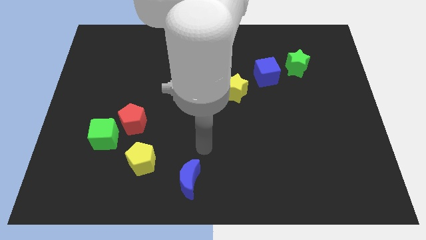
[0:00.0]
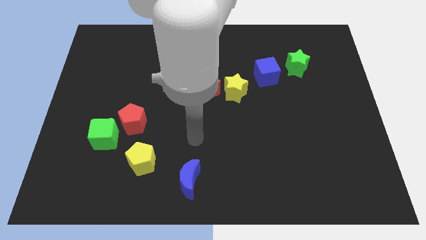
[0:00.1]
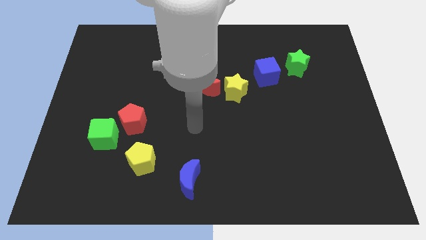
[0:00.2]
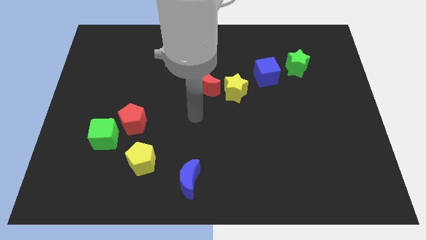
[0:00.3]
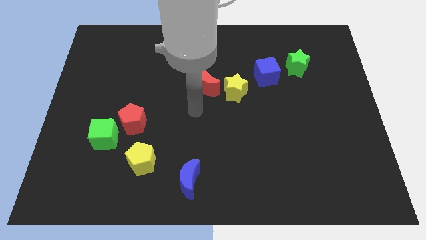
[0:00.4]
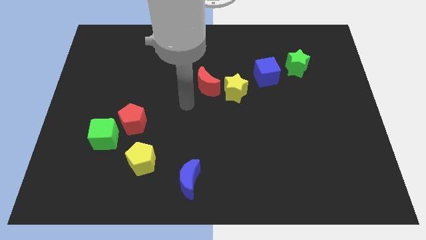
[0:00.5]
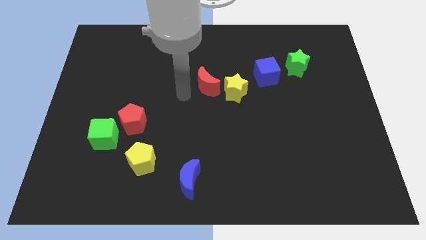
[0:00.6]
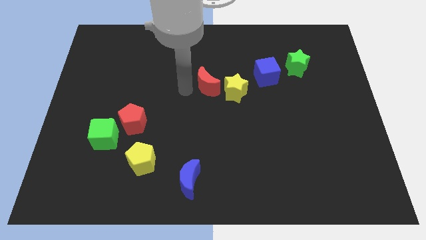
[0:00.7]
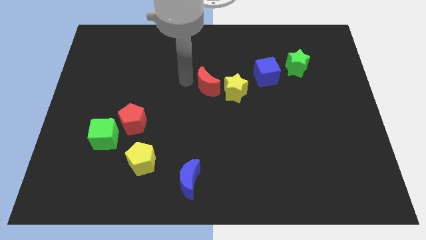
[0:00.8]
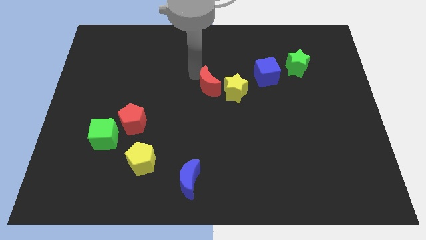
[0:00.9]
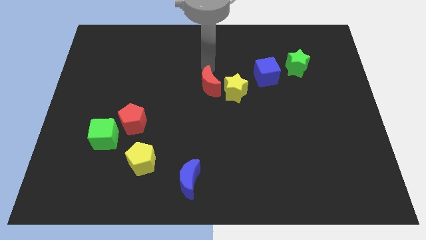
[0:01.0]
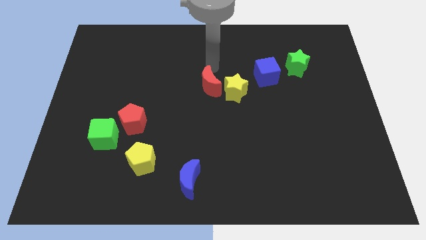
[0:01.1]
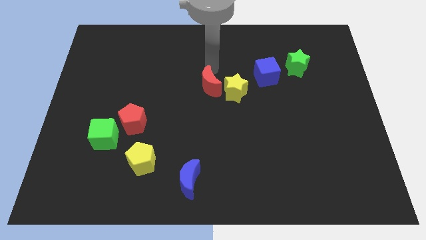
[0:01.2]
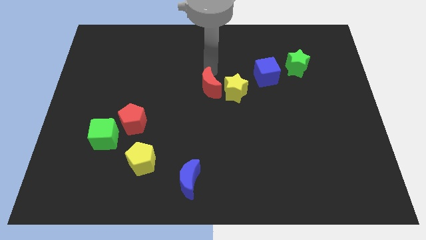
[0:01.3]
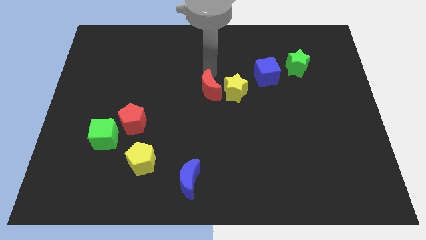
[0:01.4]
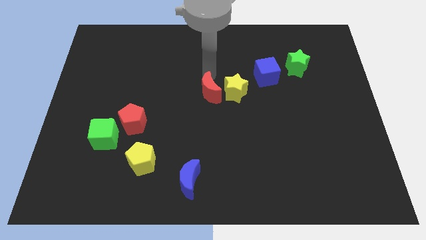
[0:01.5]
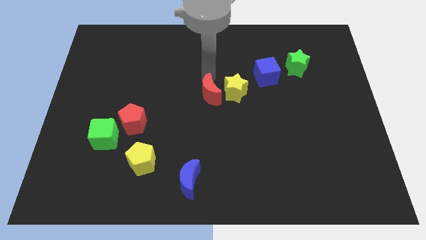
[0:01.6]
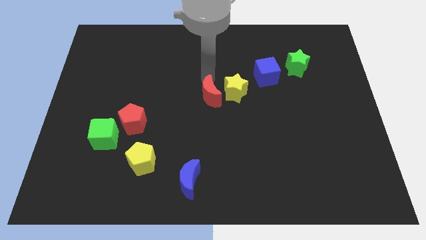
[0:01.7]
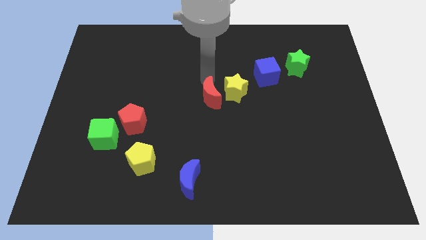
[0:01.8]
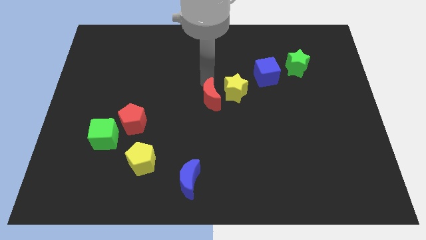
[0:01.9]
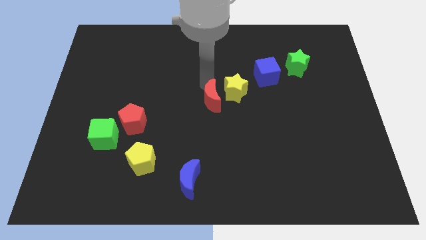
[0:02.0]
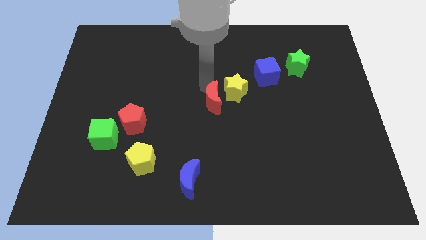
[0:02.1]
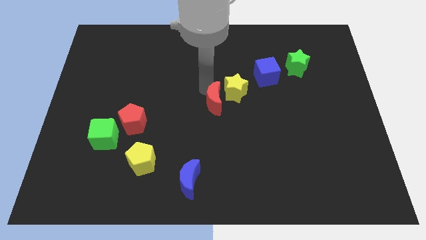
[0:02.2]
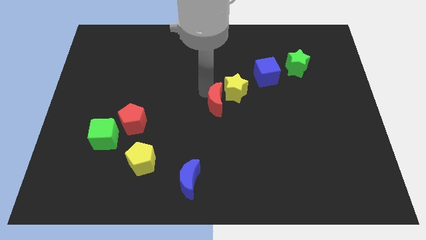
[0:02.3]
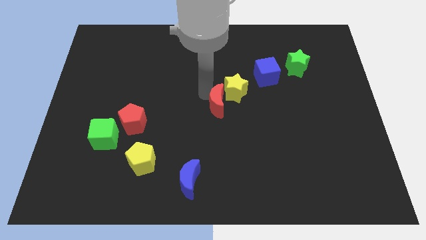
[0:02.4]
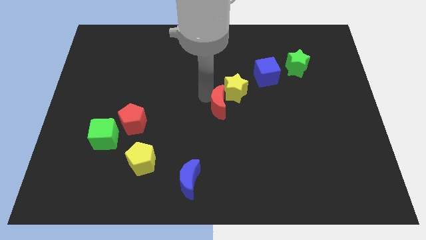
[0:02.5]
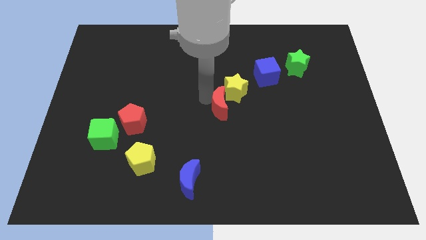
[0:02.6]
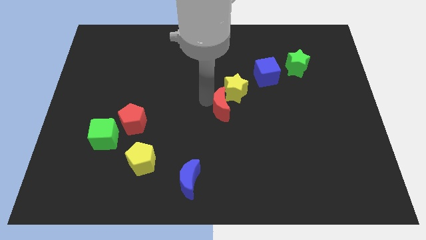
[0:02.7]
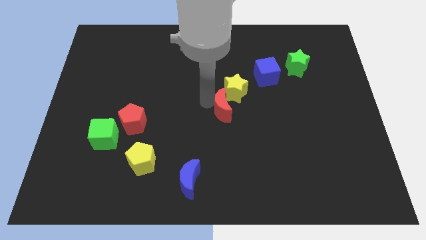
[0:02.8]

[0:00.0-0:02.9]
move the red moon a bit downwards

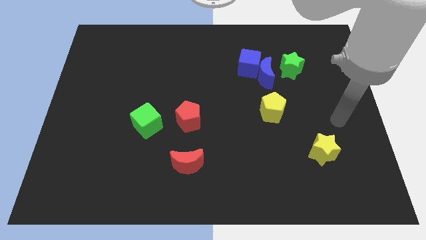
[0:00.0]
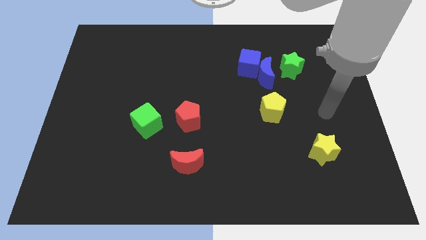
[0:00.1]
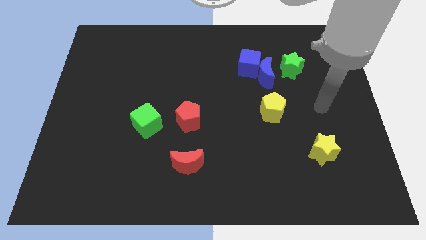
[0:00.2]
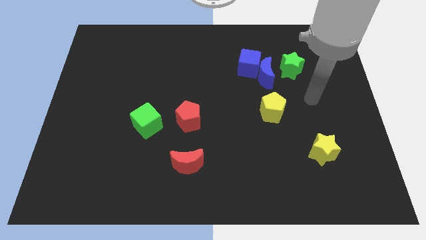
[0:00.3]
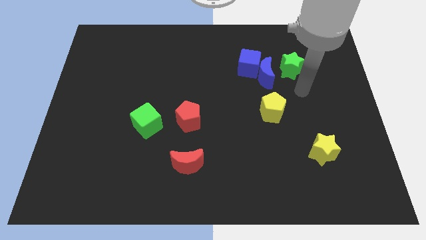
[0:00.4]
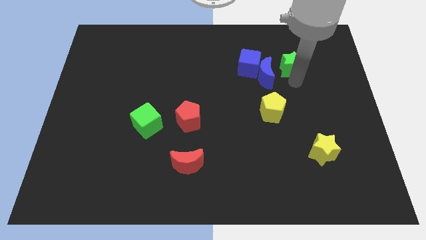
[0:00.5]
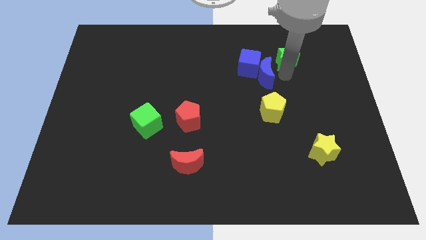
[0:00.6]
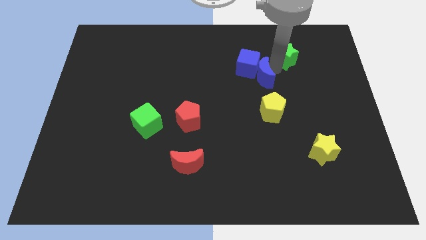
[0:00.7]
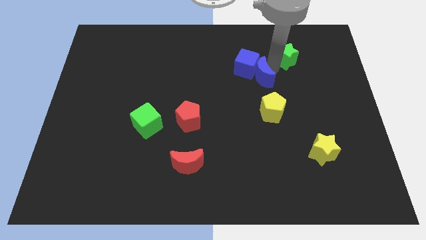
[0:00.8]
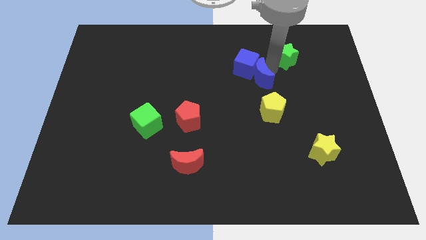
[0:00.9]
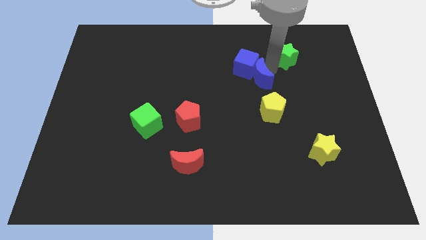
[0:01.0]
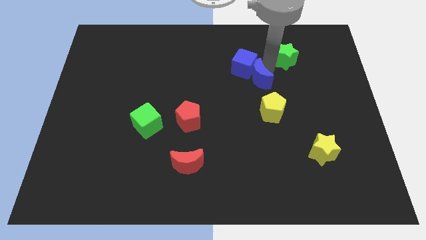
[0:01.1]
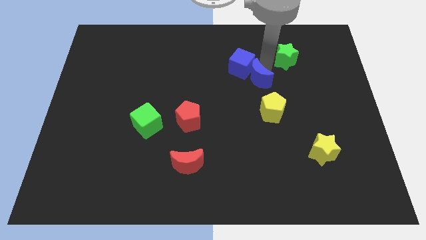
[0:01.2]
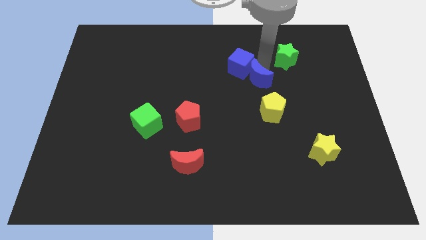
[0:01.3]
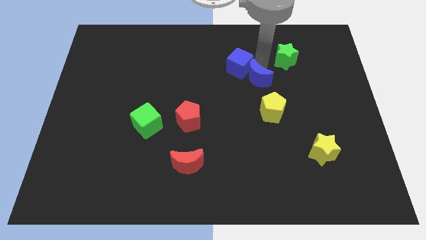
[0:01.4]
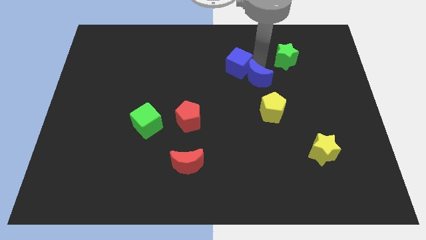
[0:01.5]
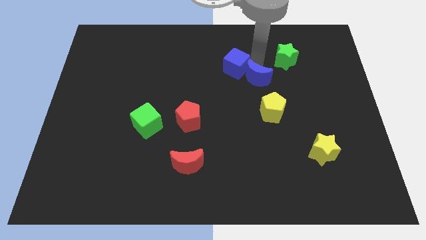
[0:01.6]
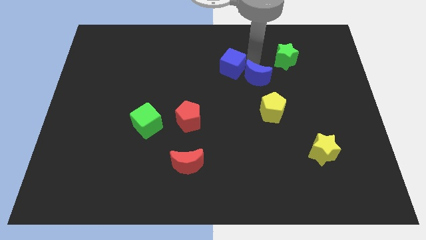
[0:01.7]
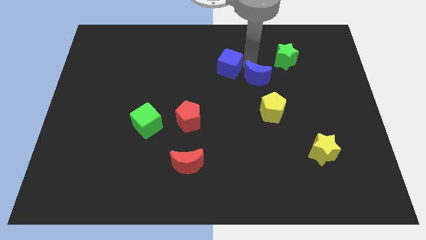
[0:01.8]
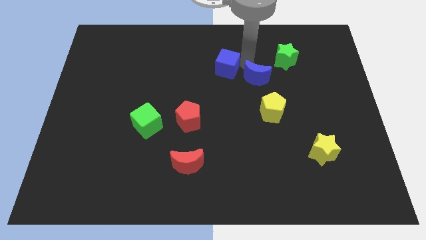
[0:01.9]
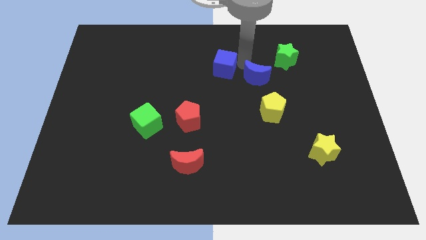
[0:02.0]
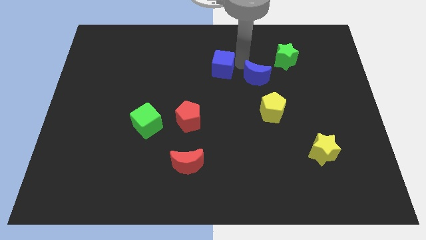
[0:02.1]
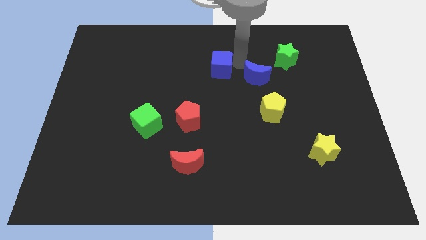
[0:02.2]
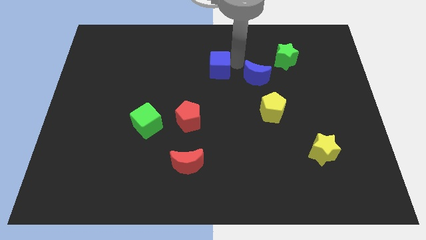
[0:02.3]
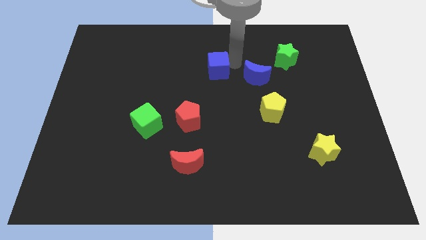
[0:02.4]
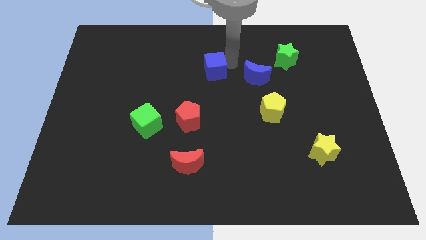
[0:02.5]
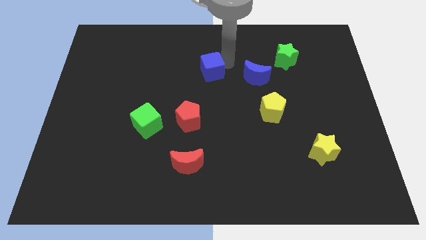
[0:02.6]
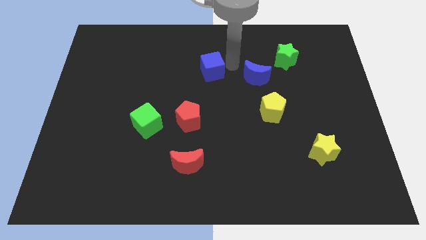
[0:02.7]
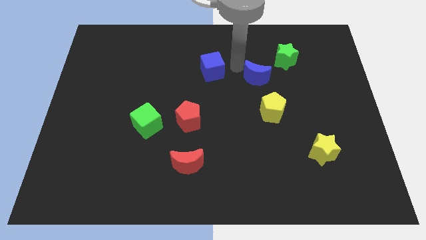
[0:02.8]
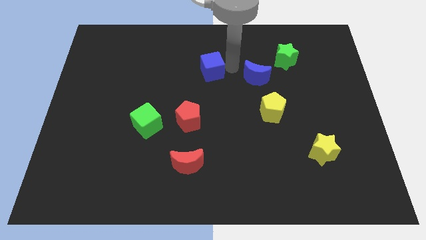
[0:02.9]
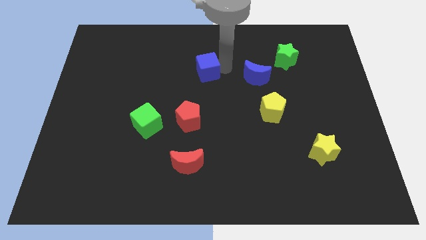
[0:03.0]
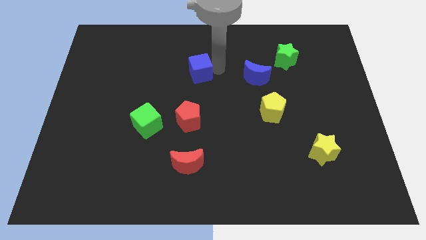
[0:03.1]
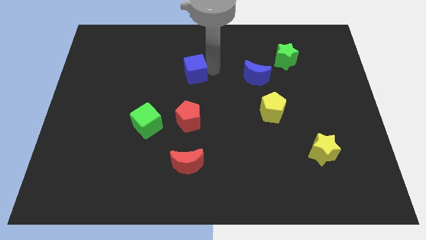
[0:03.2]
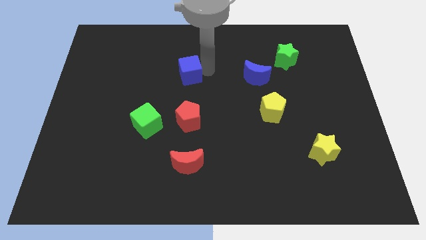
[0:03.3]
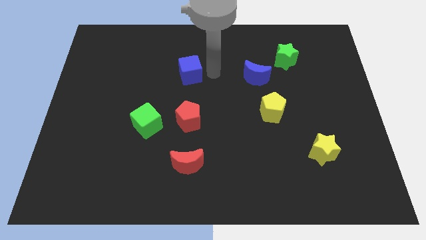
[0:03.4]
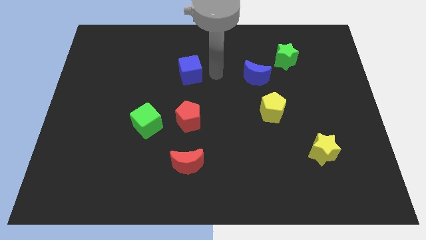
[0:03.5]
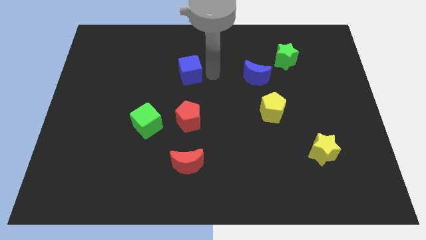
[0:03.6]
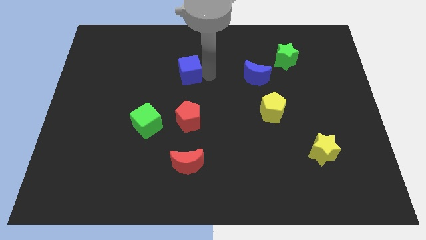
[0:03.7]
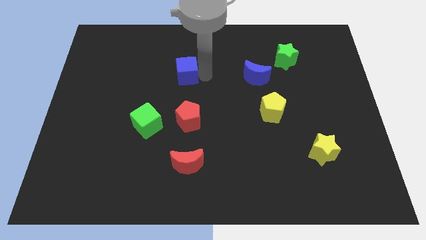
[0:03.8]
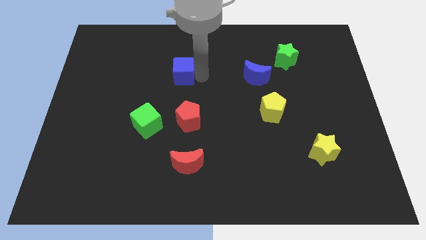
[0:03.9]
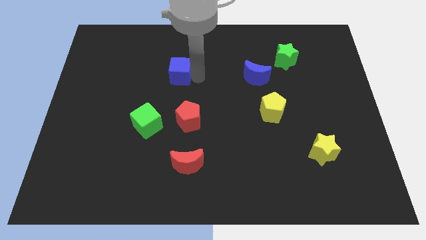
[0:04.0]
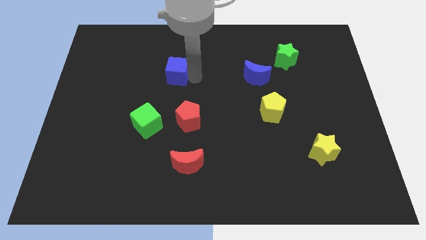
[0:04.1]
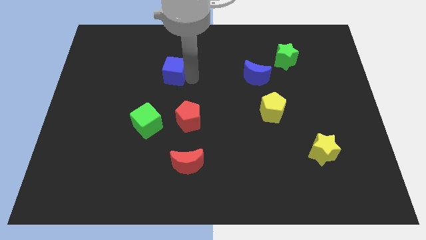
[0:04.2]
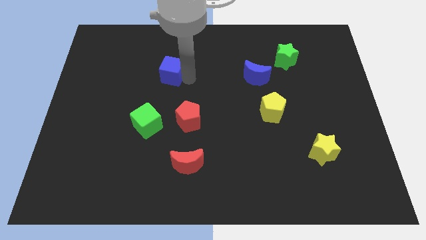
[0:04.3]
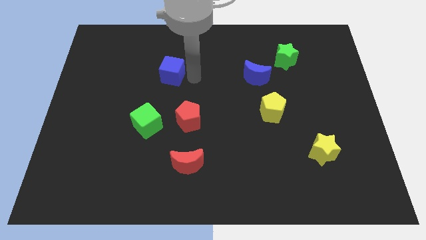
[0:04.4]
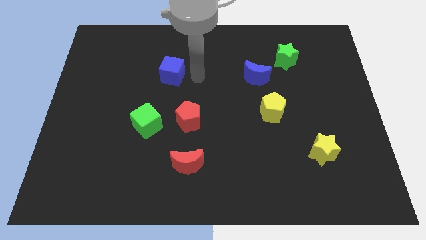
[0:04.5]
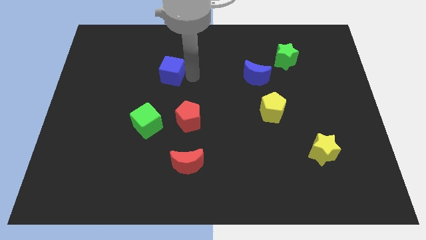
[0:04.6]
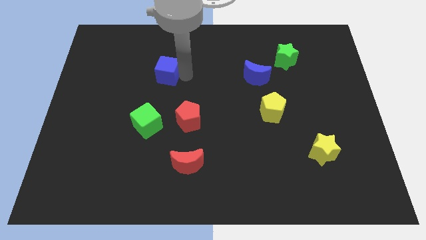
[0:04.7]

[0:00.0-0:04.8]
slide the blue cube to the left

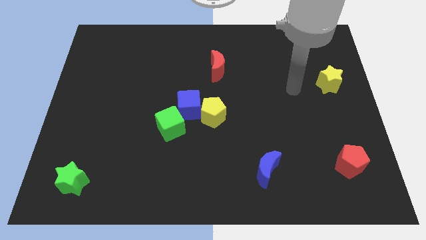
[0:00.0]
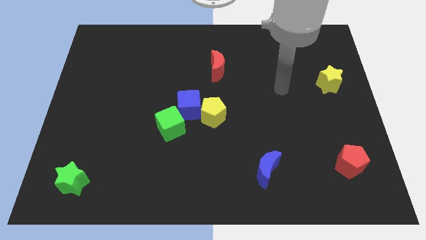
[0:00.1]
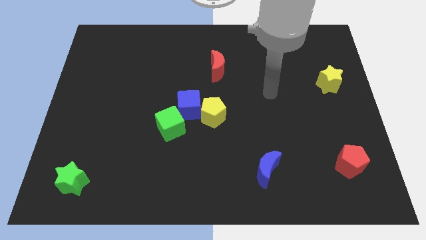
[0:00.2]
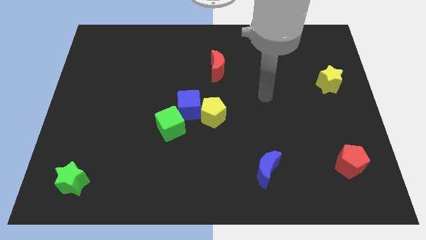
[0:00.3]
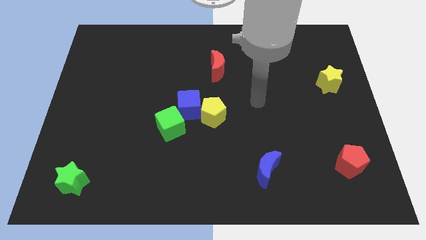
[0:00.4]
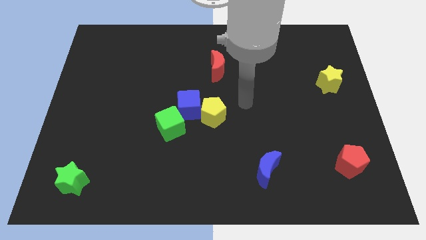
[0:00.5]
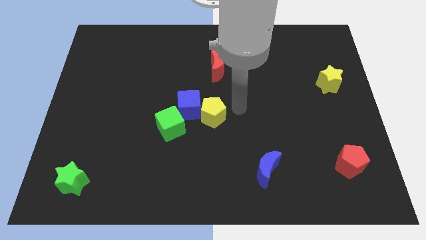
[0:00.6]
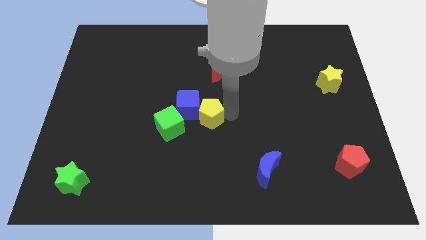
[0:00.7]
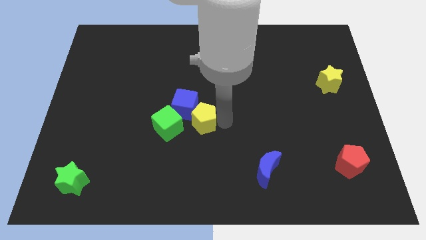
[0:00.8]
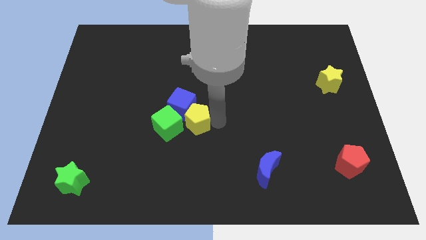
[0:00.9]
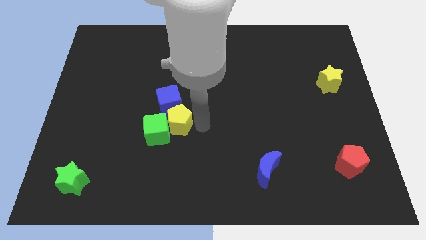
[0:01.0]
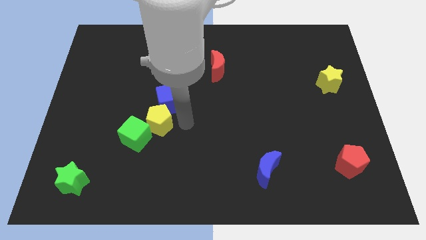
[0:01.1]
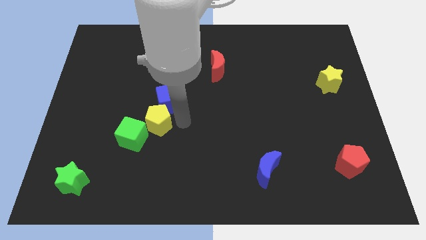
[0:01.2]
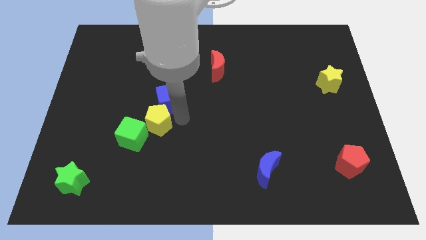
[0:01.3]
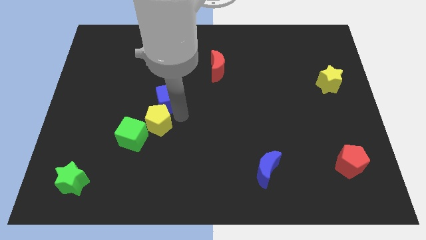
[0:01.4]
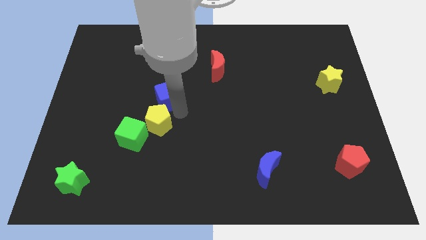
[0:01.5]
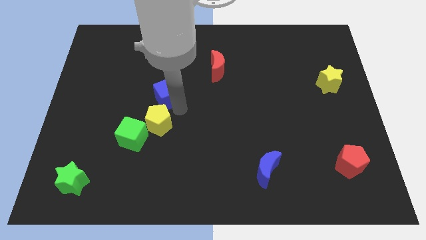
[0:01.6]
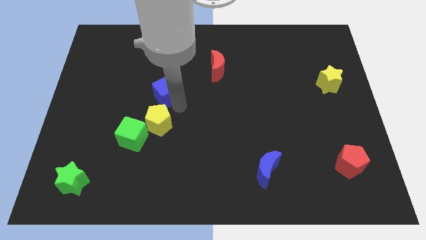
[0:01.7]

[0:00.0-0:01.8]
slightly move the blue cube up and to the left diagonally
